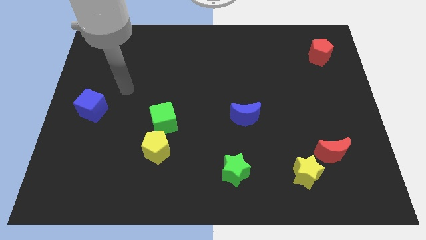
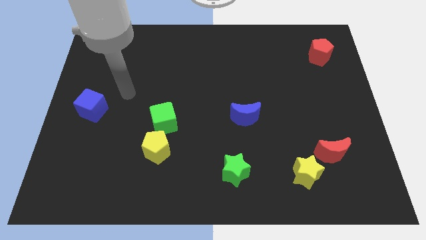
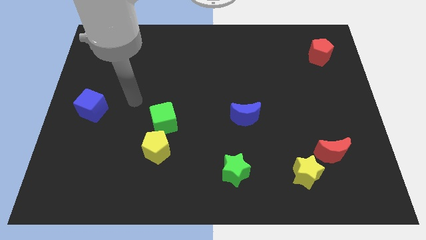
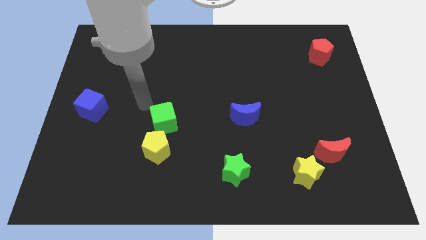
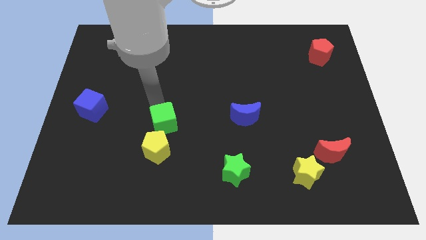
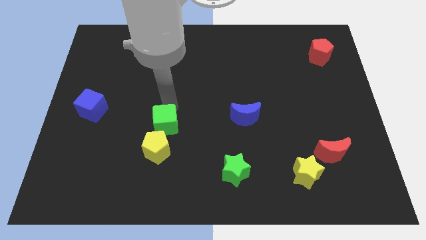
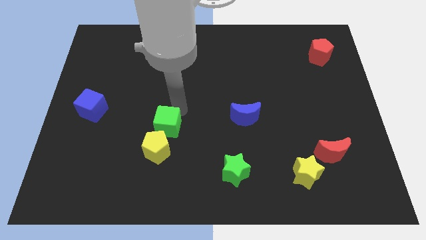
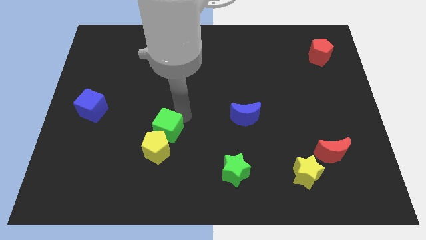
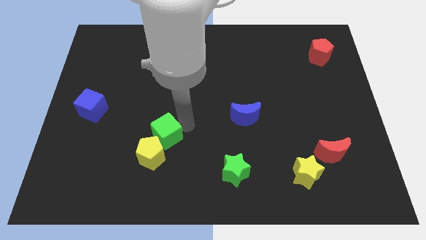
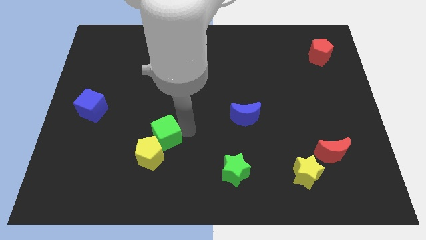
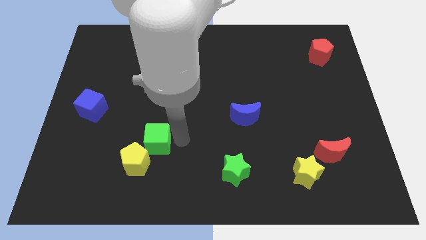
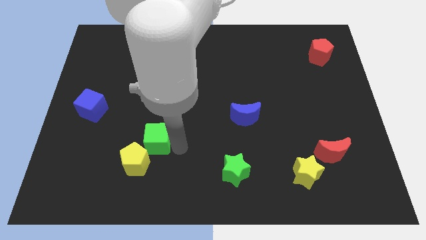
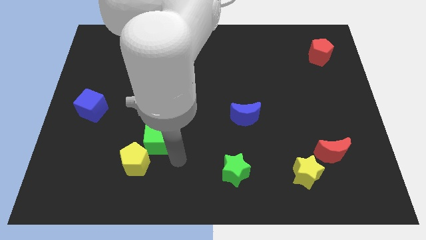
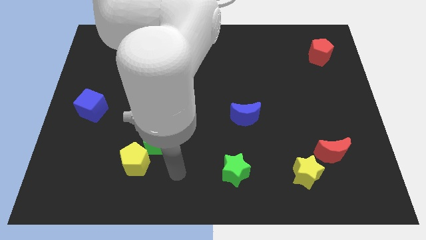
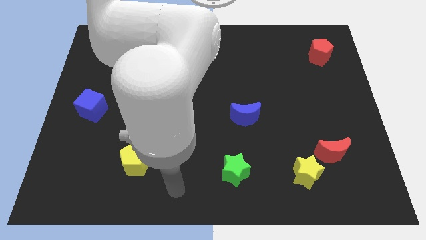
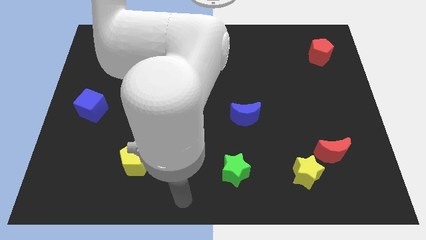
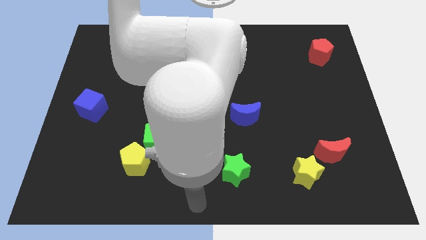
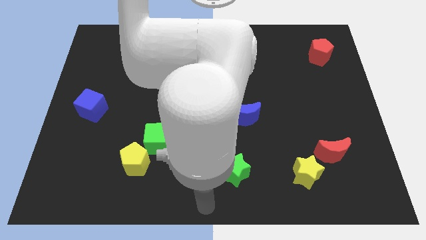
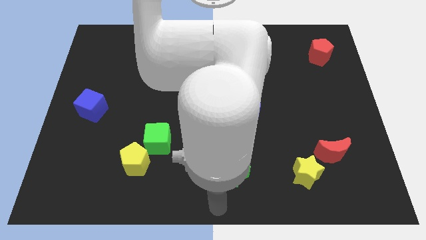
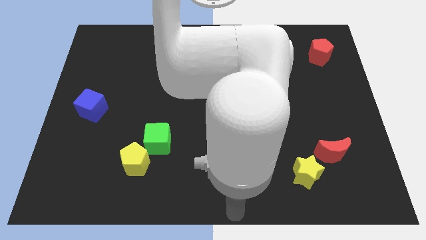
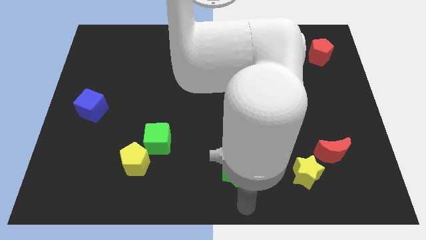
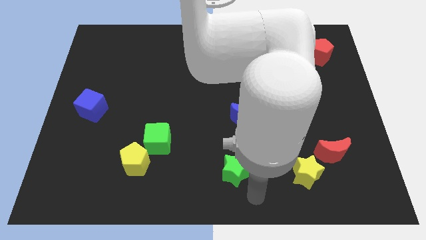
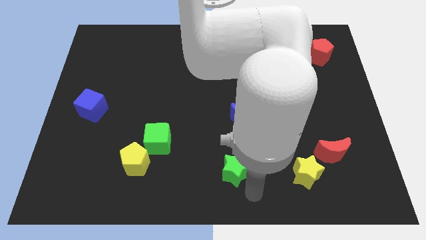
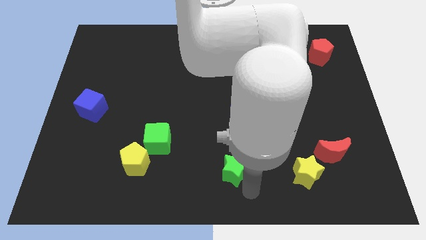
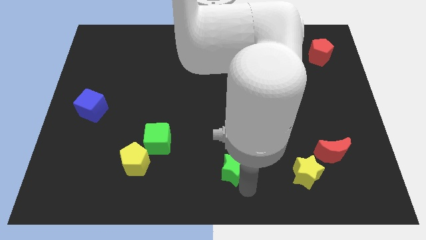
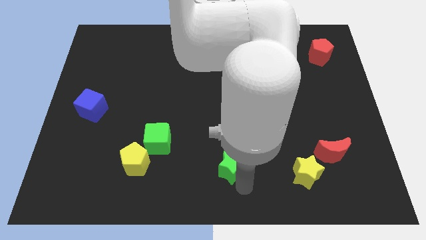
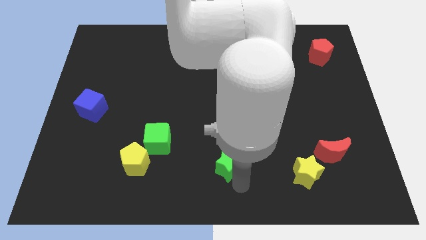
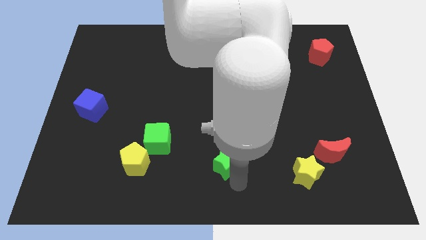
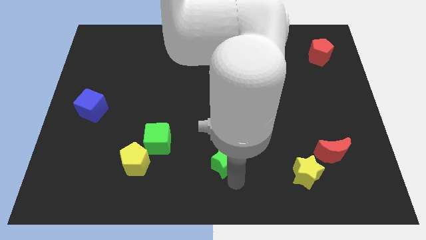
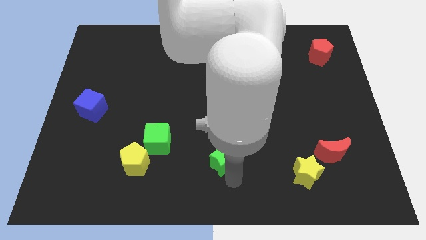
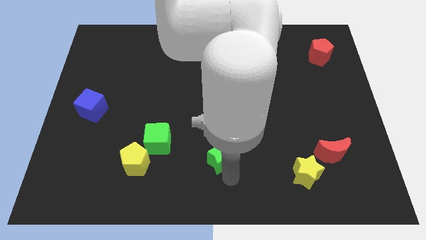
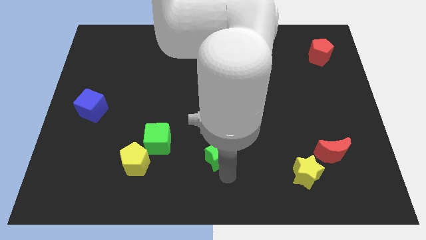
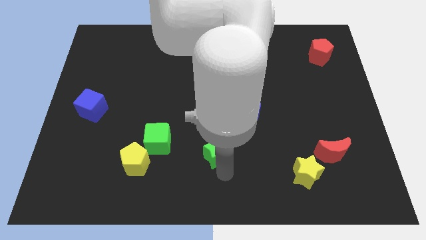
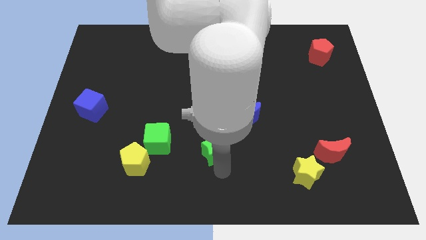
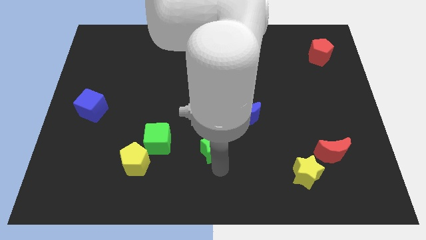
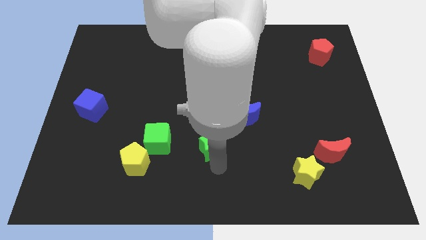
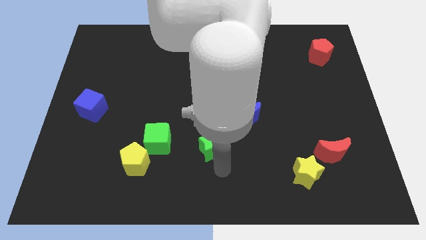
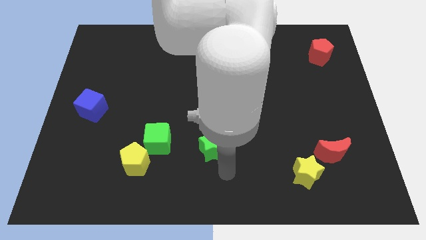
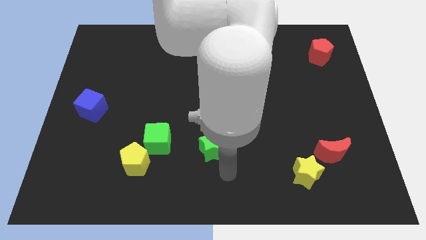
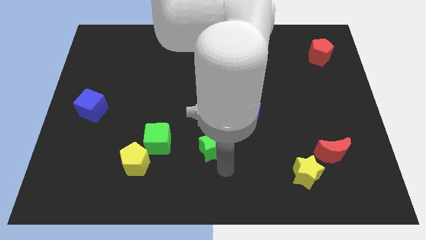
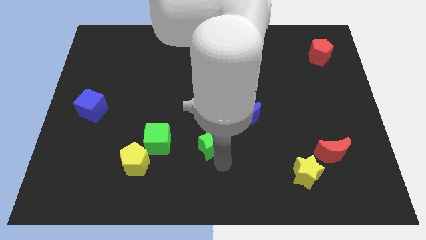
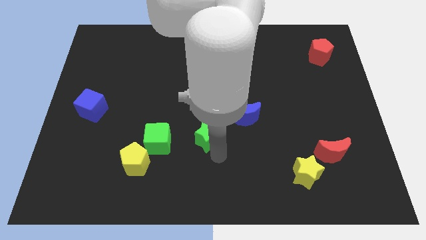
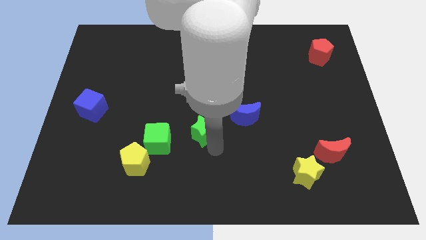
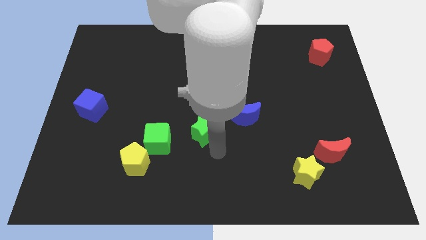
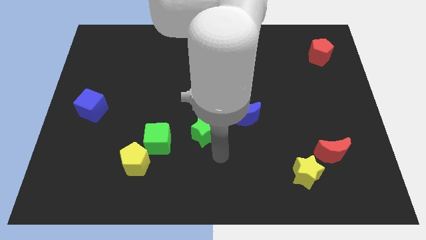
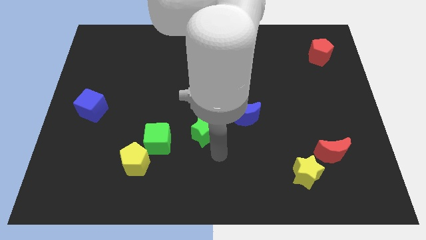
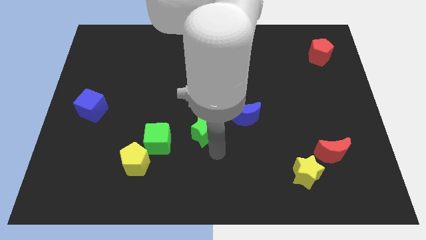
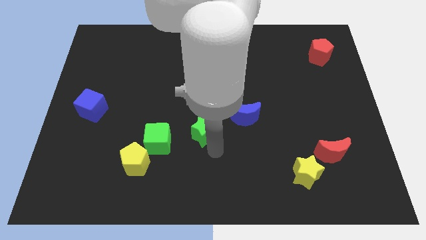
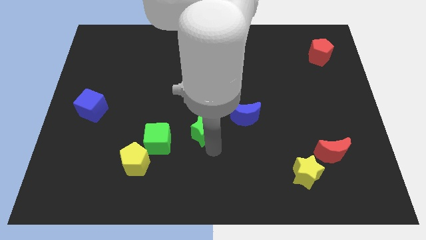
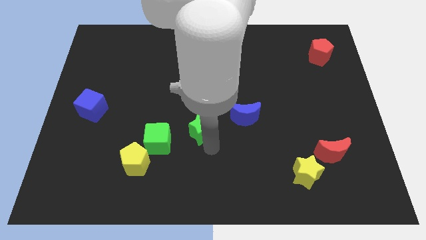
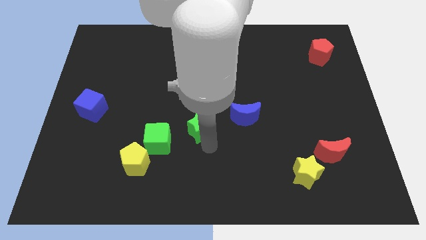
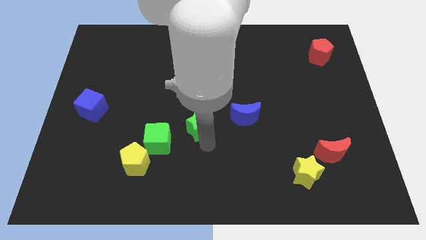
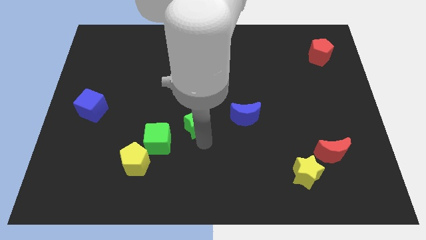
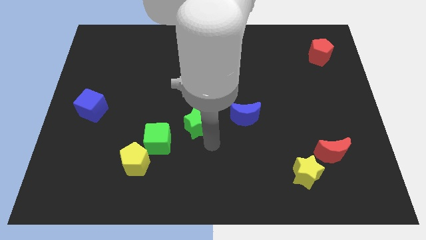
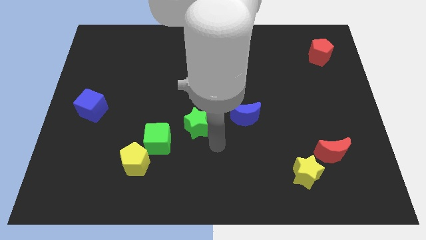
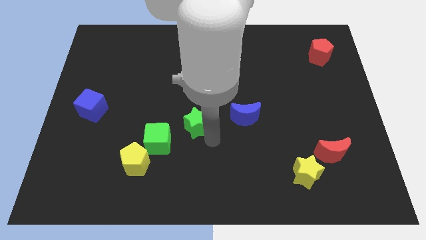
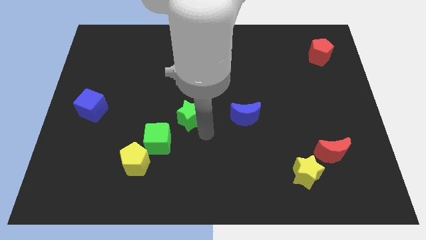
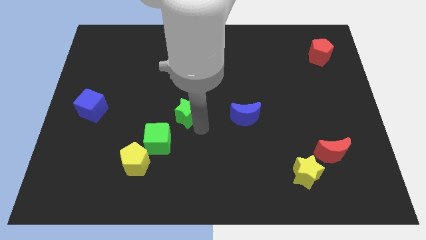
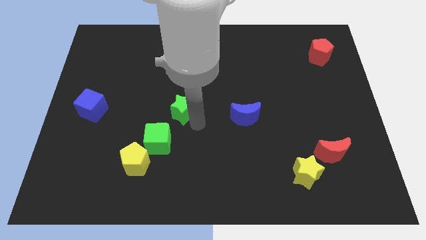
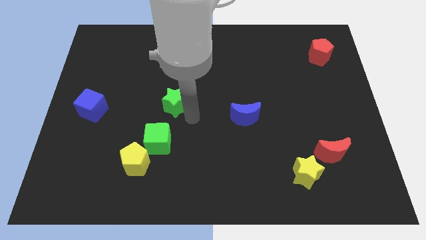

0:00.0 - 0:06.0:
move the green star diagonally upwards and left

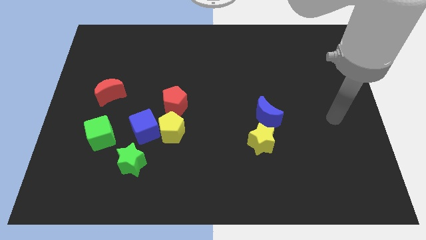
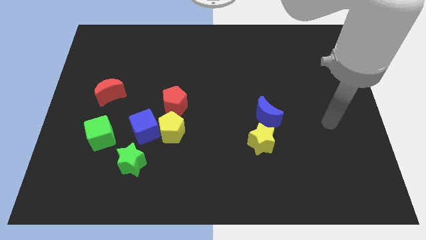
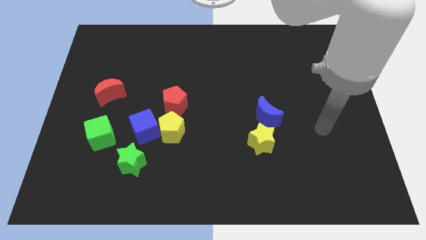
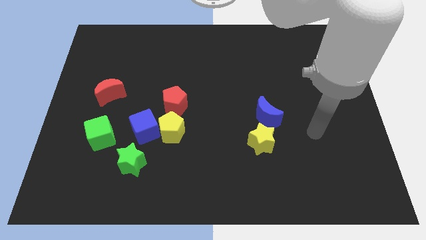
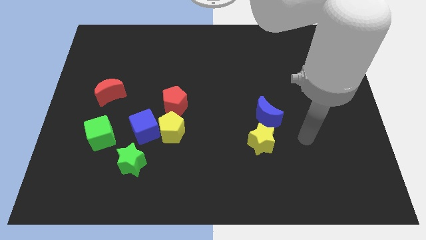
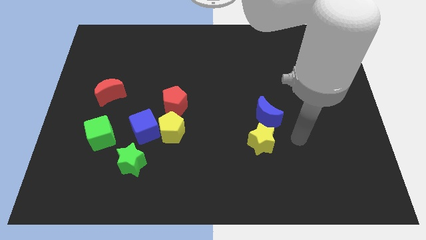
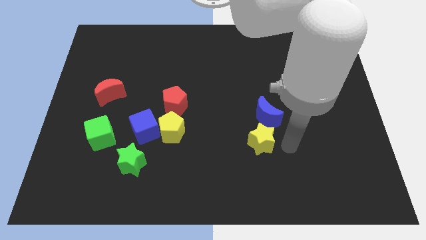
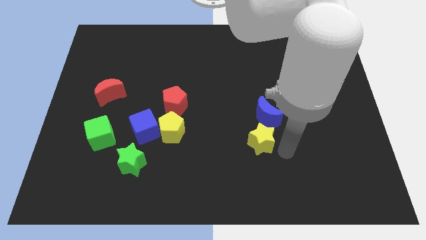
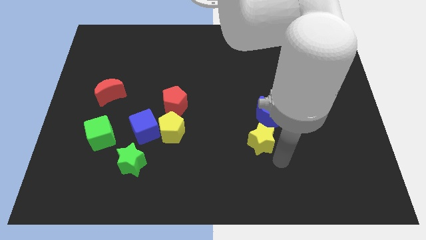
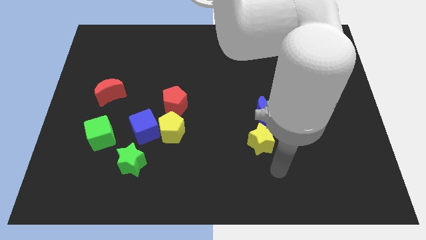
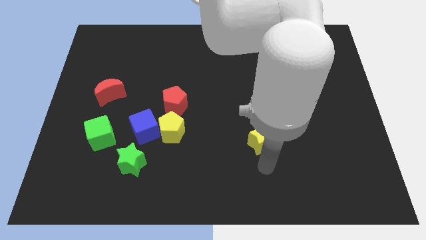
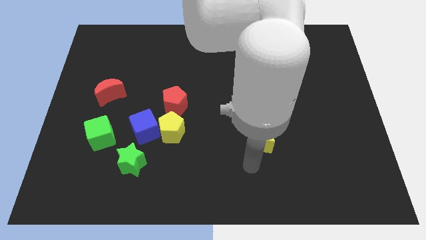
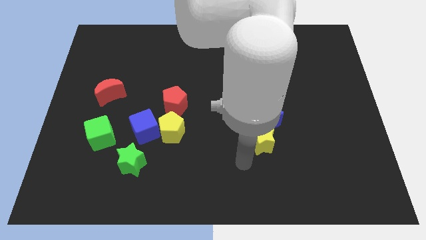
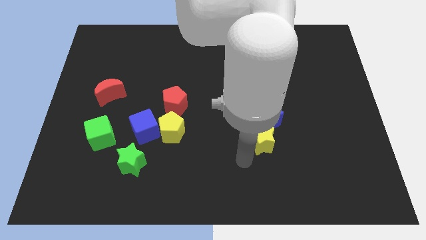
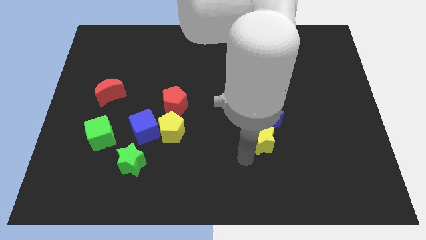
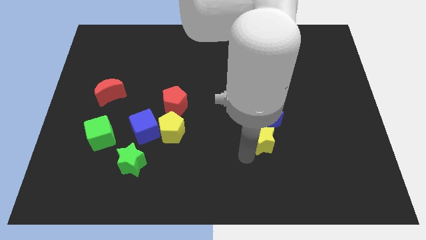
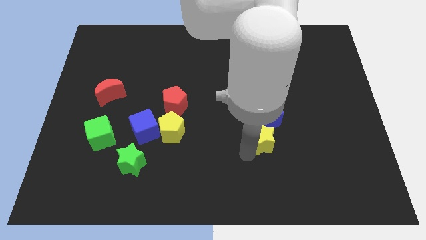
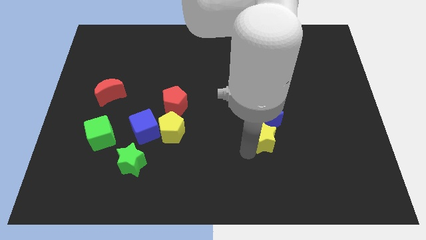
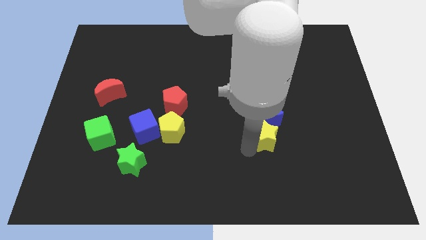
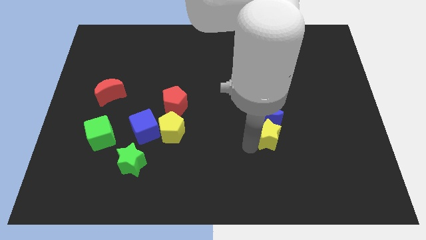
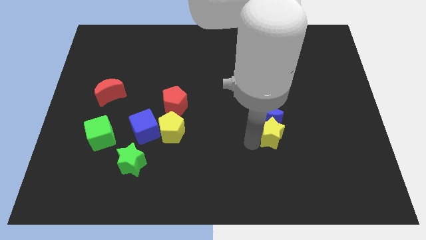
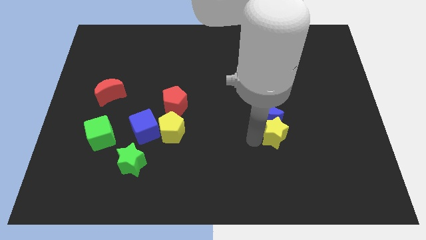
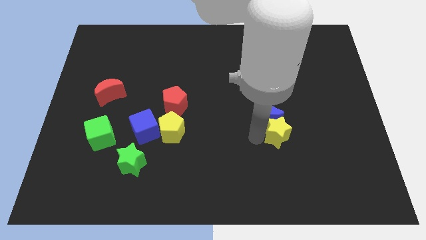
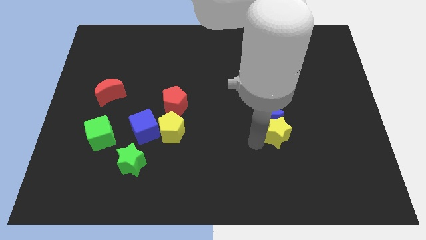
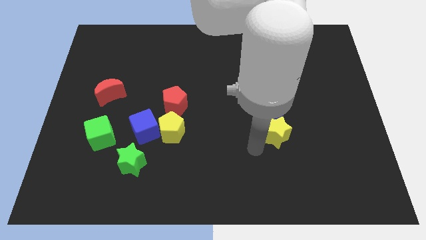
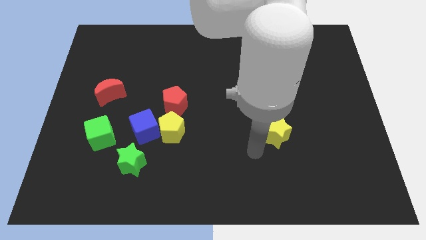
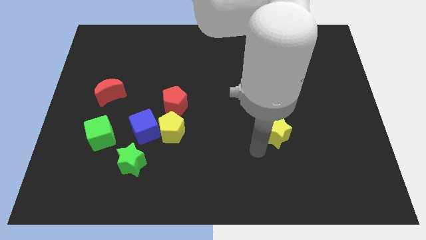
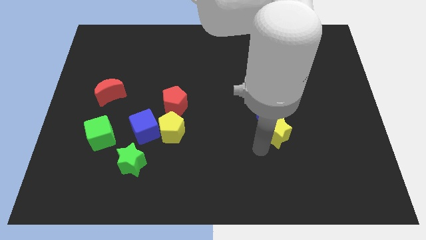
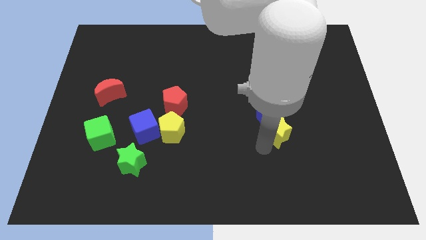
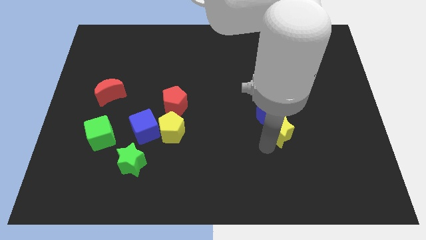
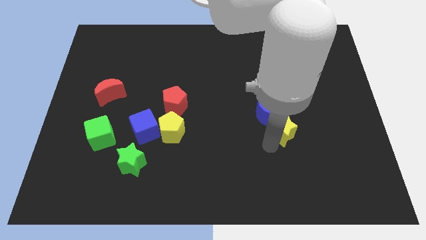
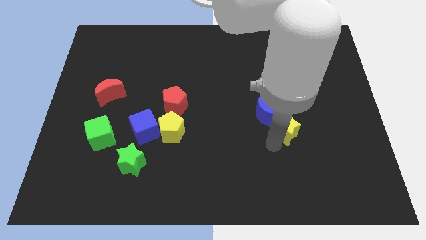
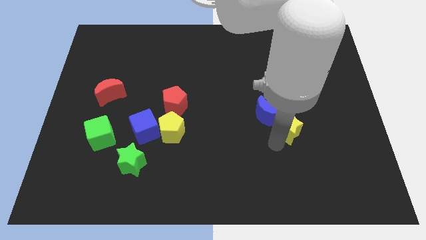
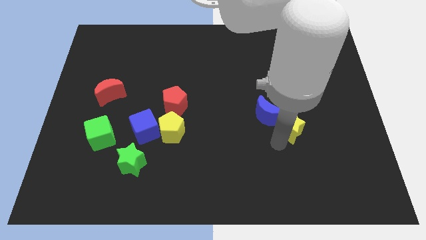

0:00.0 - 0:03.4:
slide the yellow star diagonally upwards and right a little bit
